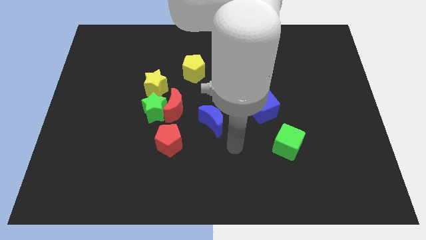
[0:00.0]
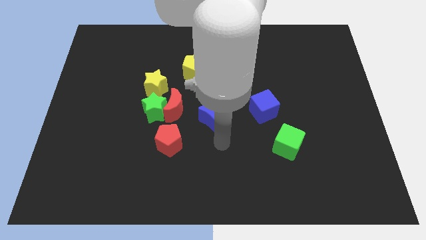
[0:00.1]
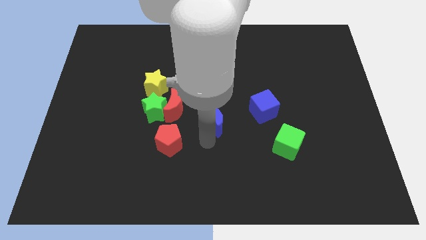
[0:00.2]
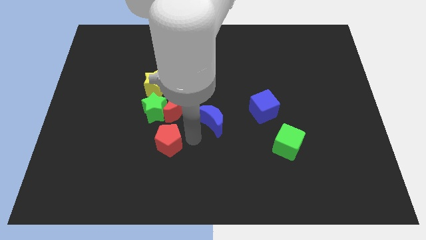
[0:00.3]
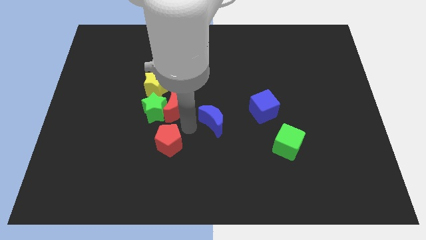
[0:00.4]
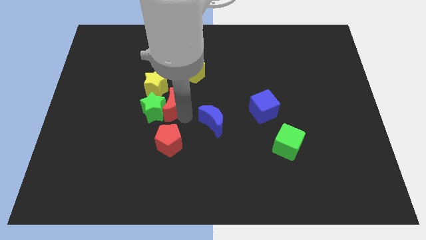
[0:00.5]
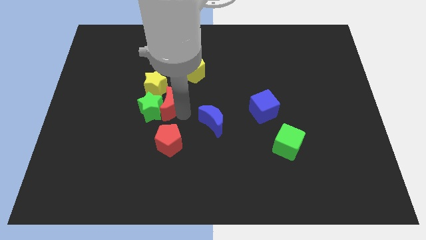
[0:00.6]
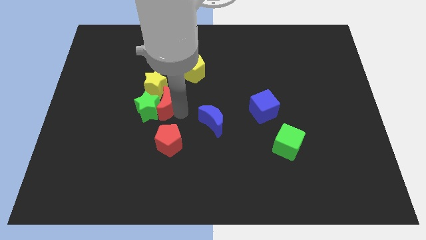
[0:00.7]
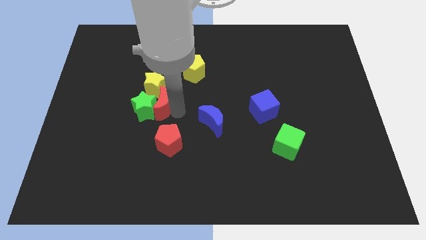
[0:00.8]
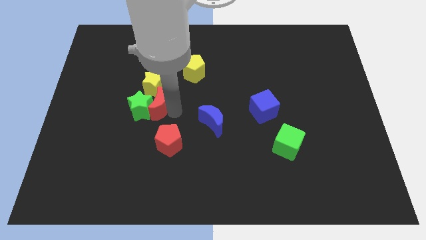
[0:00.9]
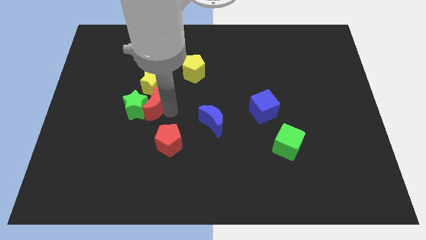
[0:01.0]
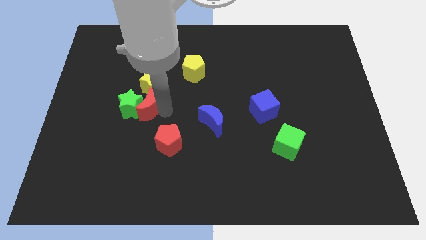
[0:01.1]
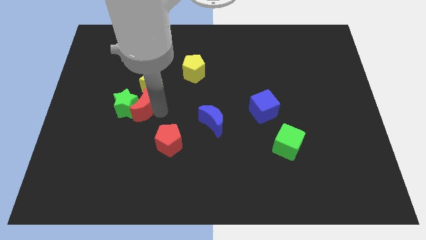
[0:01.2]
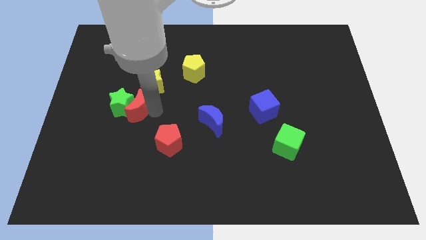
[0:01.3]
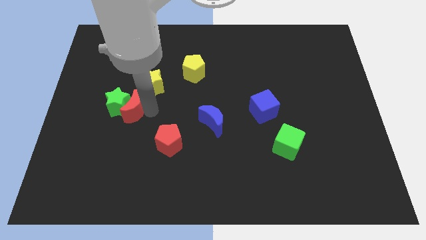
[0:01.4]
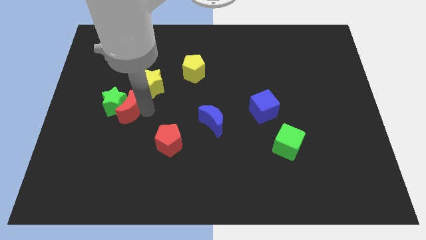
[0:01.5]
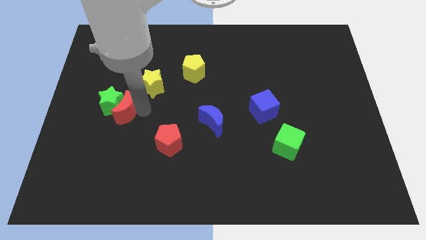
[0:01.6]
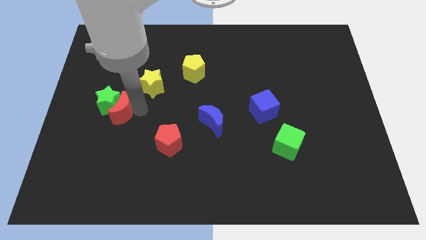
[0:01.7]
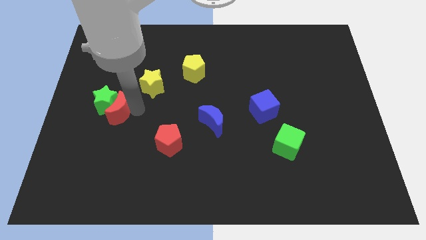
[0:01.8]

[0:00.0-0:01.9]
separate the green star from the group

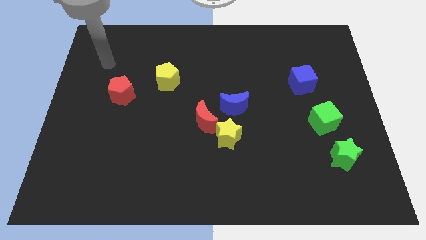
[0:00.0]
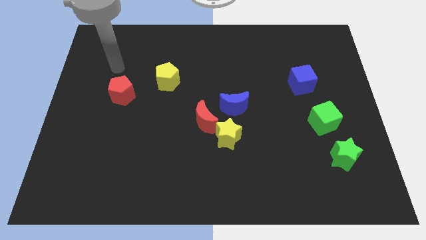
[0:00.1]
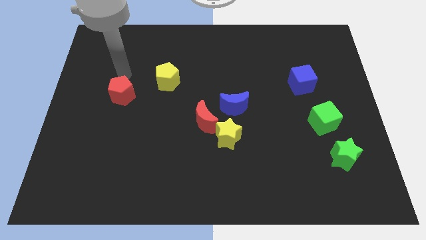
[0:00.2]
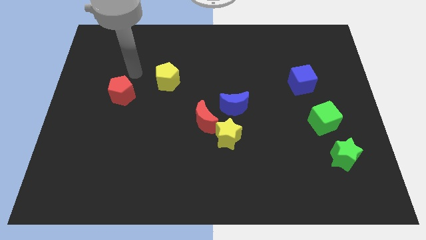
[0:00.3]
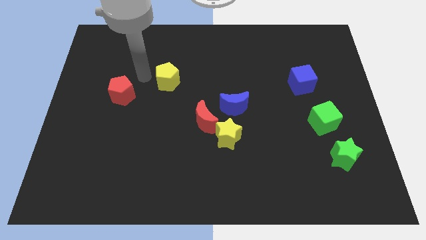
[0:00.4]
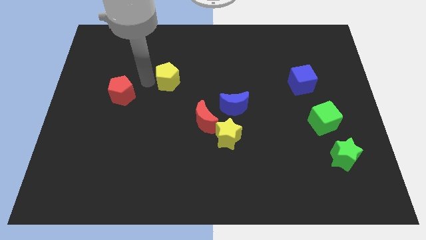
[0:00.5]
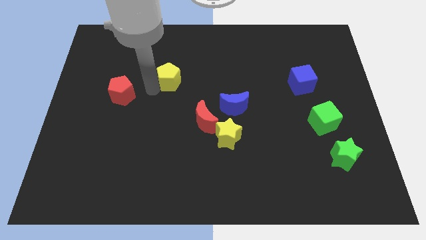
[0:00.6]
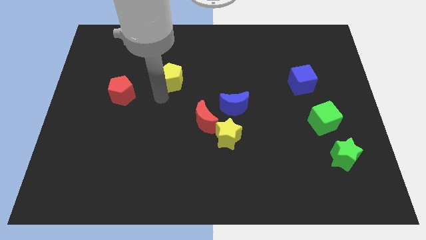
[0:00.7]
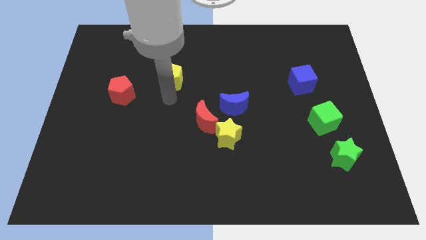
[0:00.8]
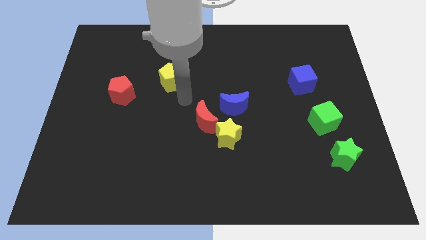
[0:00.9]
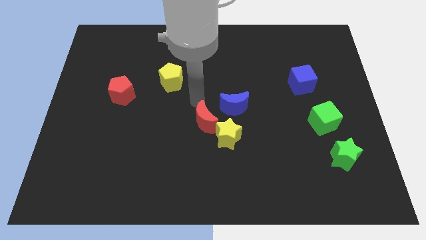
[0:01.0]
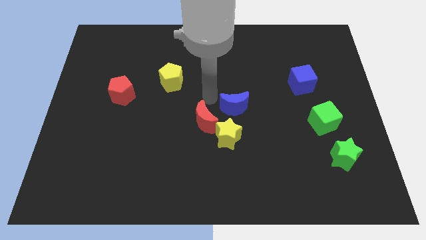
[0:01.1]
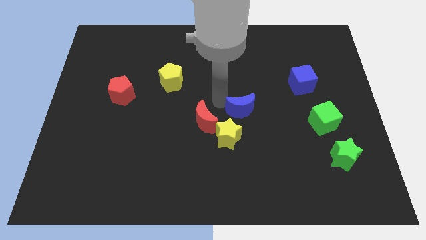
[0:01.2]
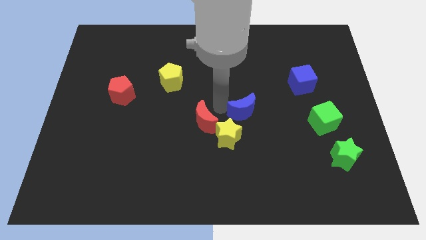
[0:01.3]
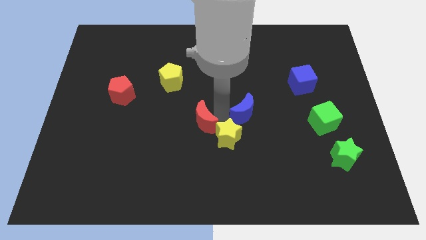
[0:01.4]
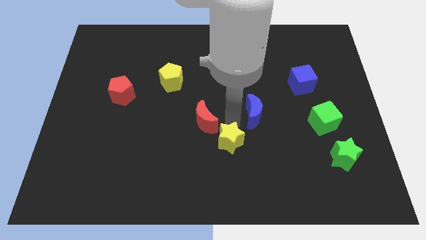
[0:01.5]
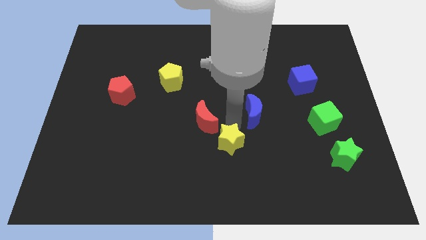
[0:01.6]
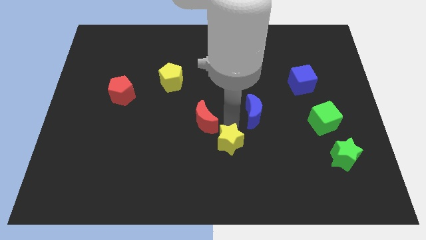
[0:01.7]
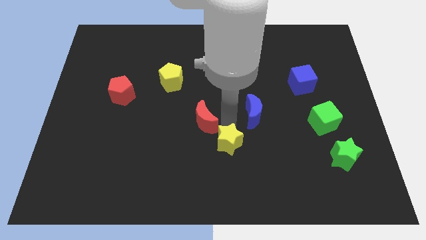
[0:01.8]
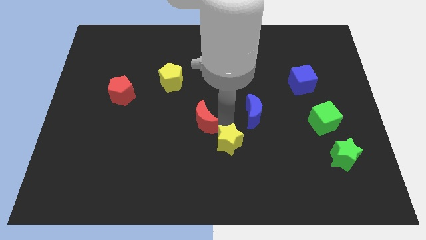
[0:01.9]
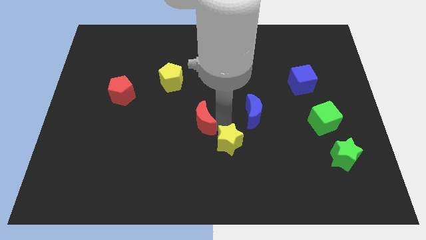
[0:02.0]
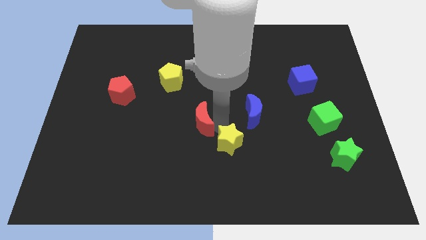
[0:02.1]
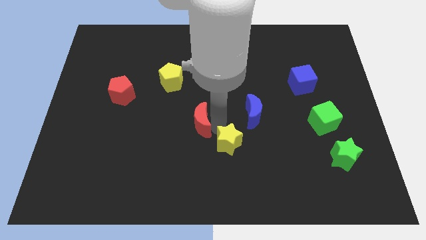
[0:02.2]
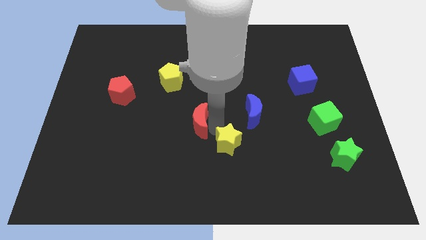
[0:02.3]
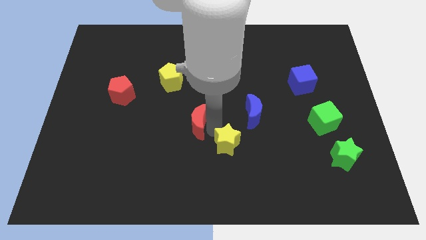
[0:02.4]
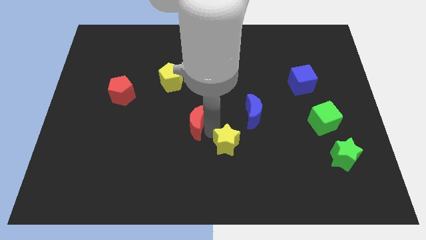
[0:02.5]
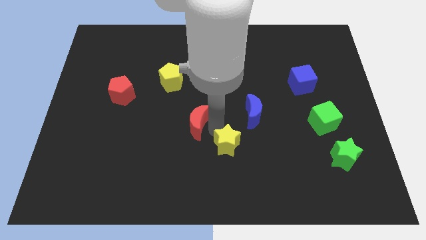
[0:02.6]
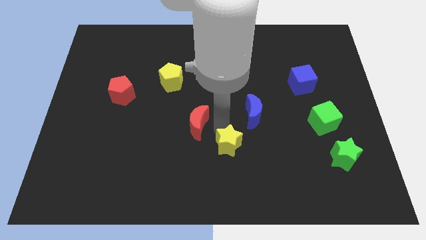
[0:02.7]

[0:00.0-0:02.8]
move the red moon away from the yellow star and blue moon

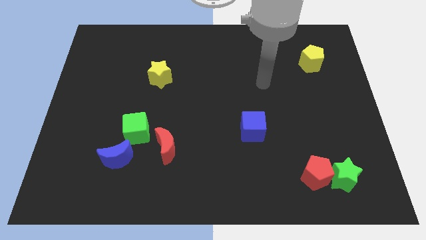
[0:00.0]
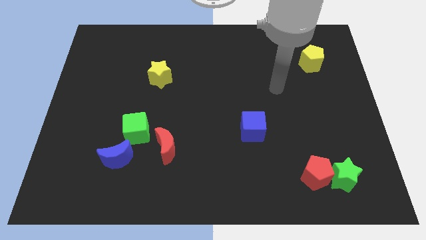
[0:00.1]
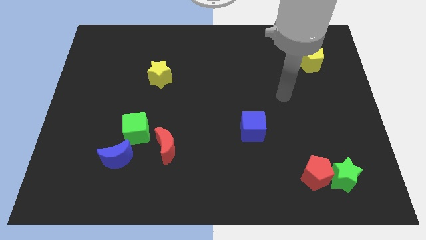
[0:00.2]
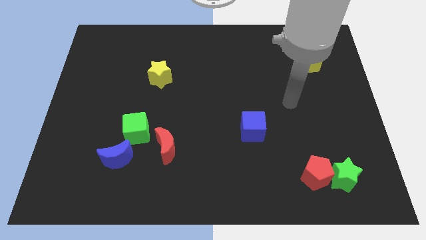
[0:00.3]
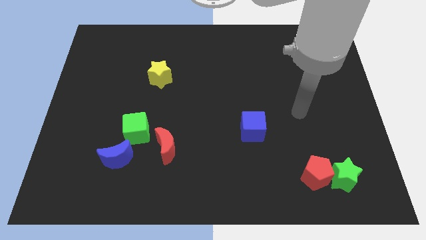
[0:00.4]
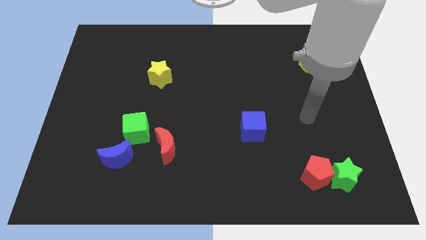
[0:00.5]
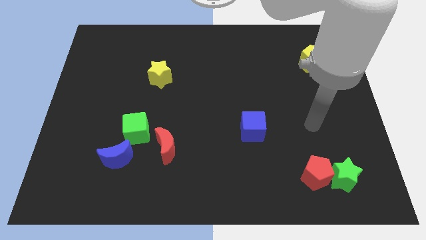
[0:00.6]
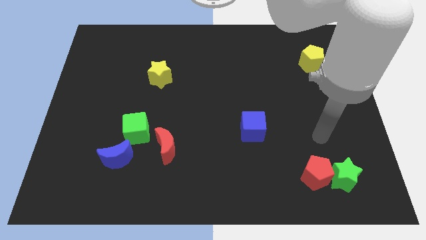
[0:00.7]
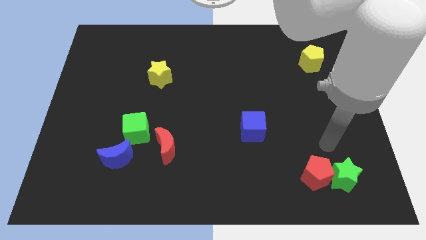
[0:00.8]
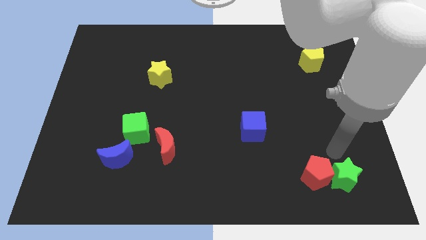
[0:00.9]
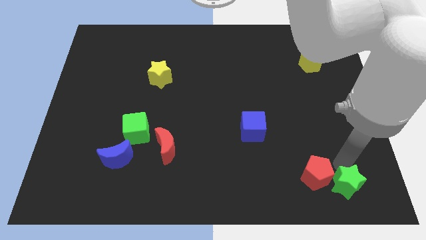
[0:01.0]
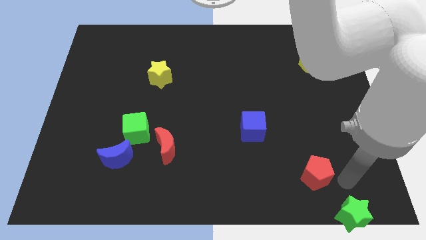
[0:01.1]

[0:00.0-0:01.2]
pull the red pentagon apart from the green star

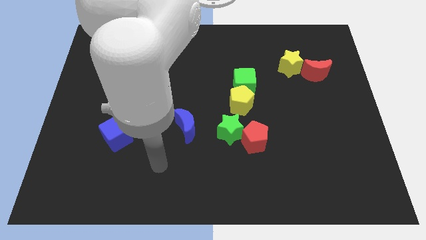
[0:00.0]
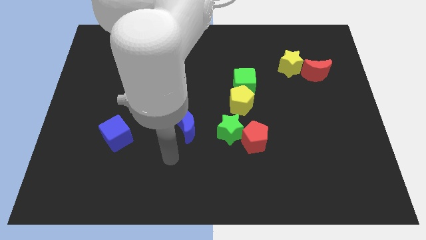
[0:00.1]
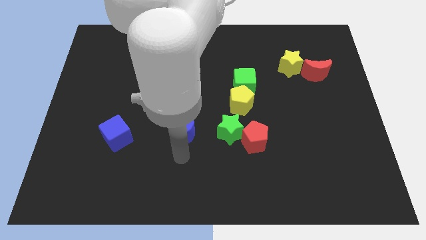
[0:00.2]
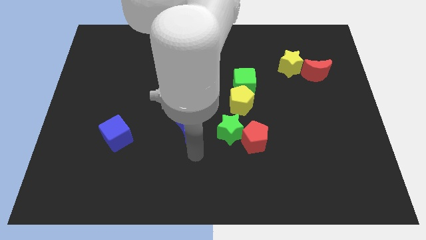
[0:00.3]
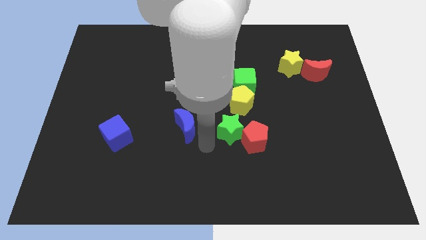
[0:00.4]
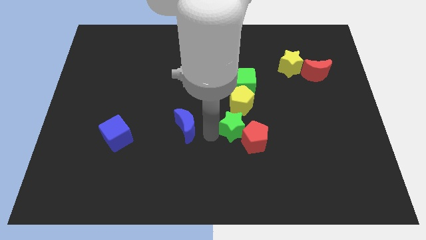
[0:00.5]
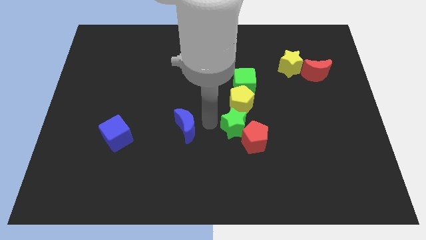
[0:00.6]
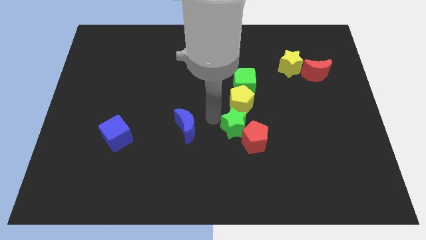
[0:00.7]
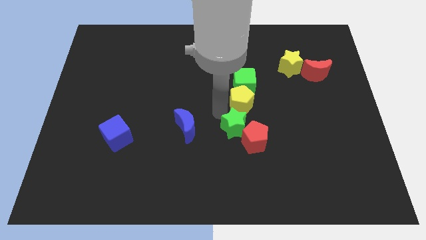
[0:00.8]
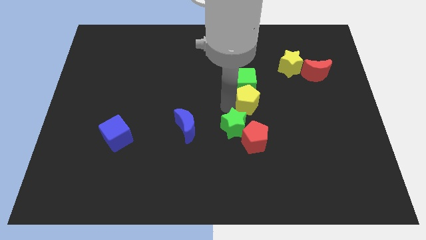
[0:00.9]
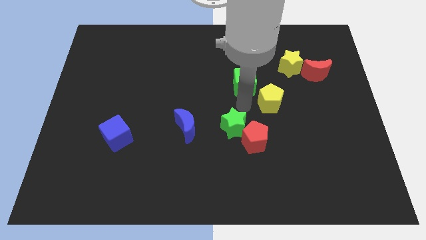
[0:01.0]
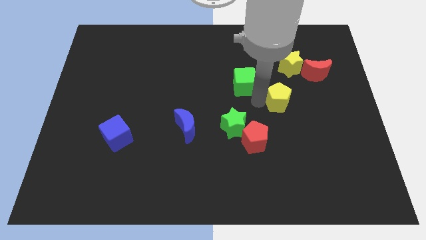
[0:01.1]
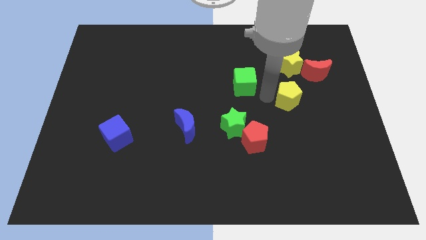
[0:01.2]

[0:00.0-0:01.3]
move the green cube away from the yellow pentagon

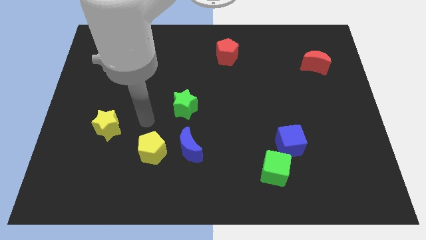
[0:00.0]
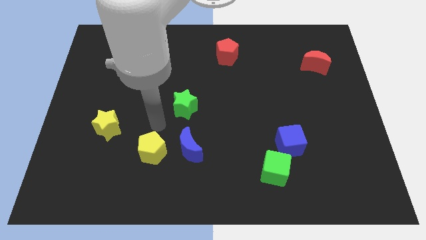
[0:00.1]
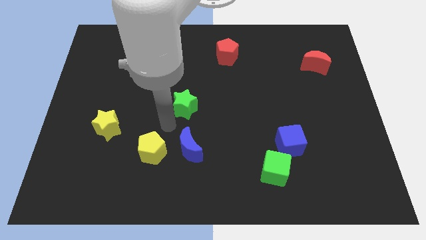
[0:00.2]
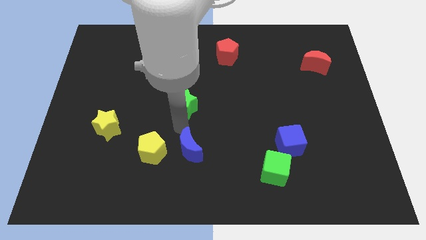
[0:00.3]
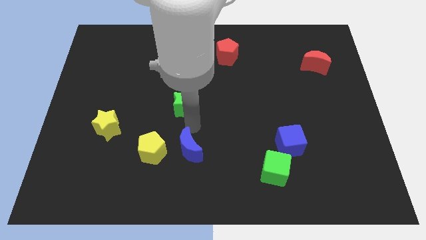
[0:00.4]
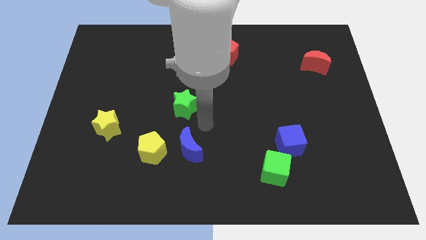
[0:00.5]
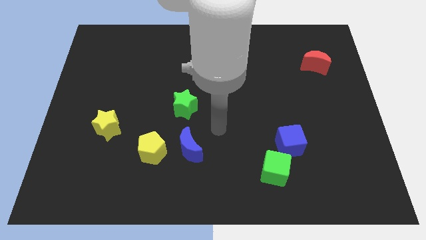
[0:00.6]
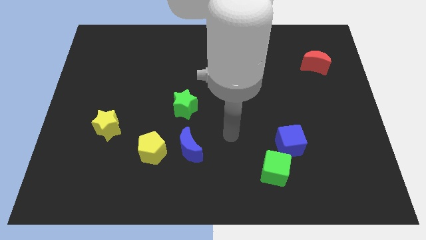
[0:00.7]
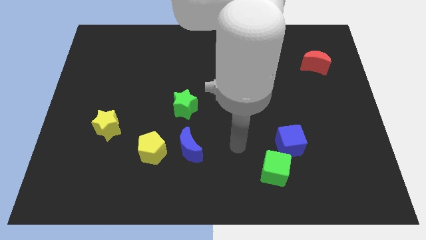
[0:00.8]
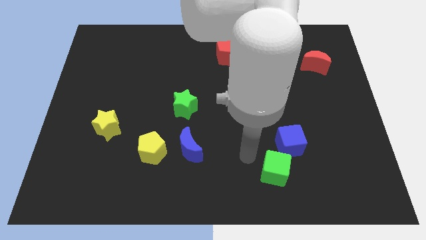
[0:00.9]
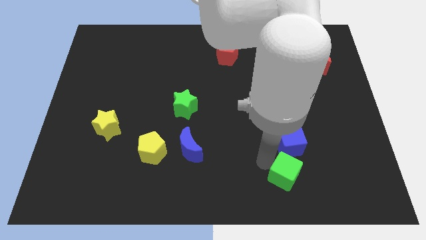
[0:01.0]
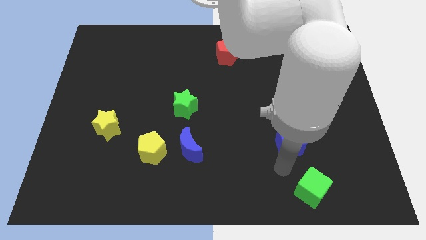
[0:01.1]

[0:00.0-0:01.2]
separate the blue cube from the green cube

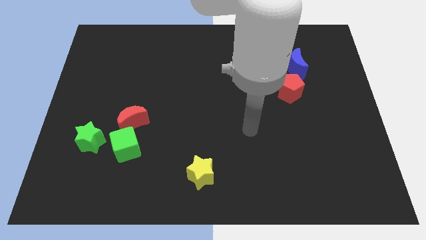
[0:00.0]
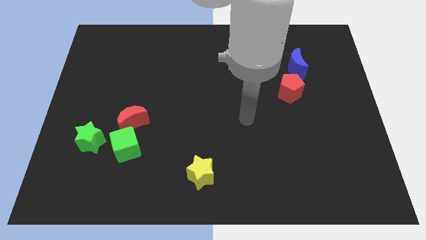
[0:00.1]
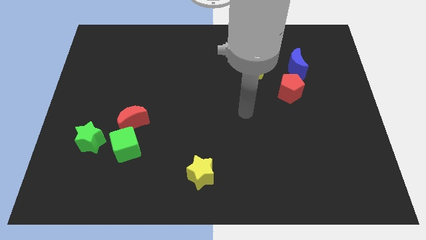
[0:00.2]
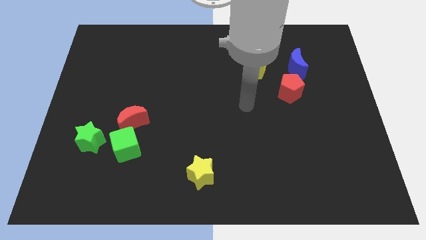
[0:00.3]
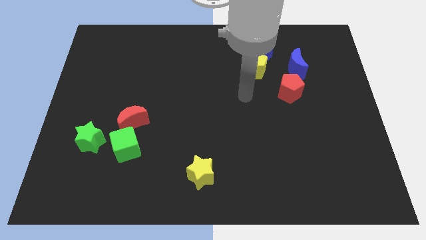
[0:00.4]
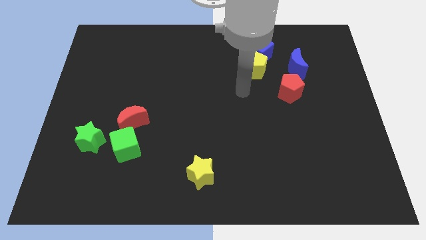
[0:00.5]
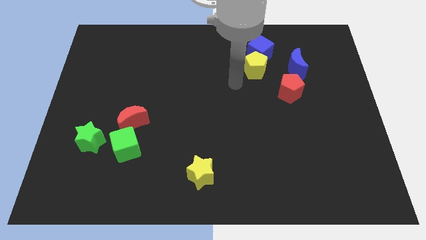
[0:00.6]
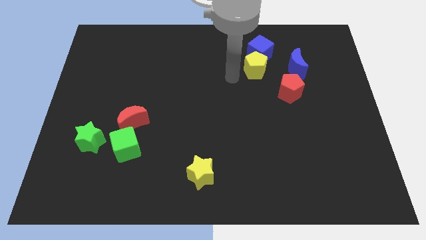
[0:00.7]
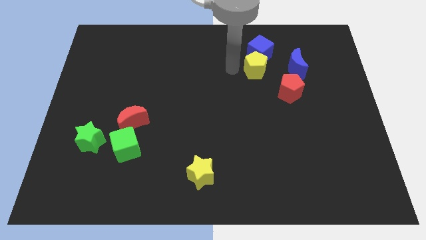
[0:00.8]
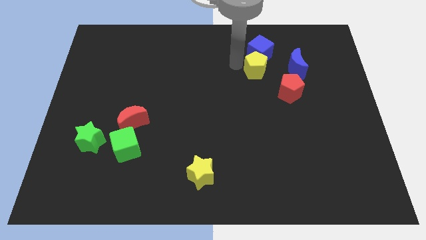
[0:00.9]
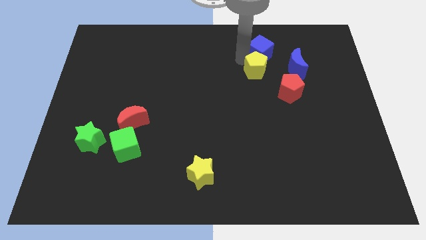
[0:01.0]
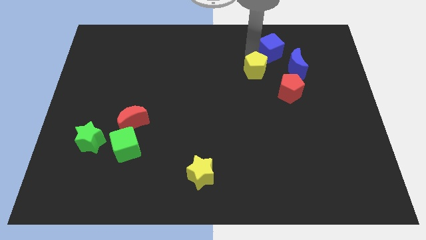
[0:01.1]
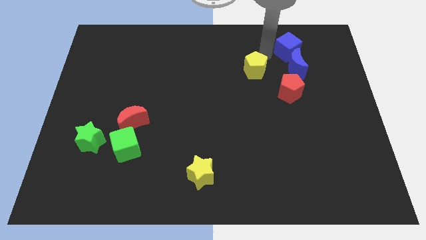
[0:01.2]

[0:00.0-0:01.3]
move the yellow pentagon away from the blue cube
